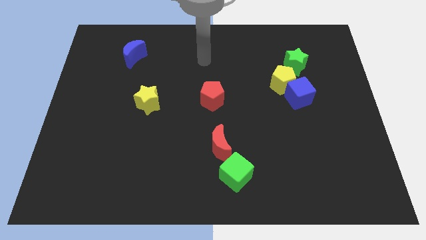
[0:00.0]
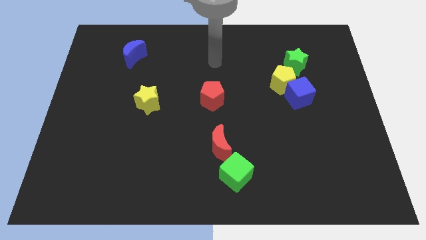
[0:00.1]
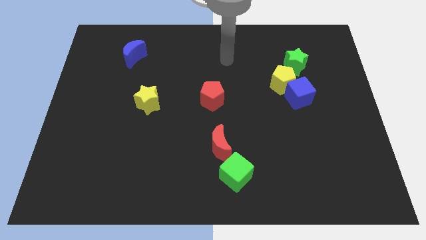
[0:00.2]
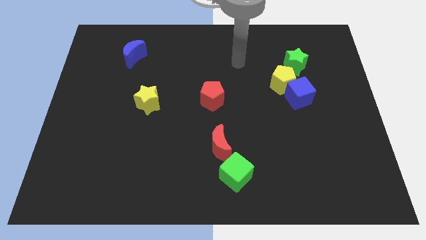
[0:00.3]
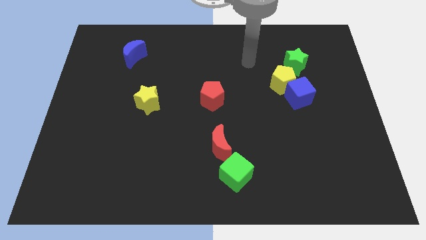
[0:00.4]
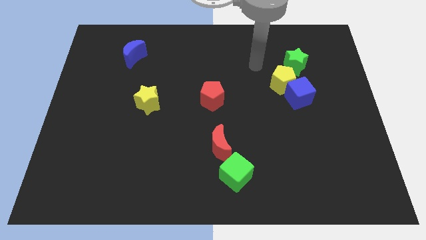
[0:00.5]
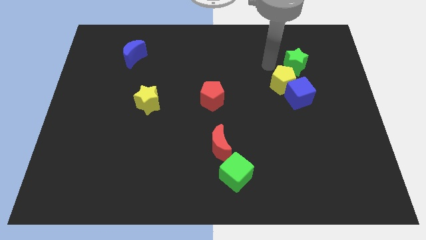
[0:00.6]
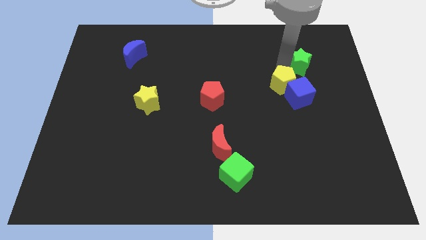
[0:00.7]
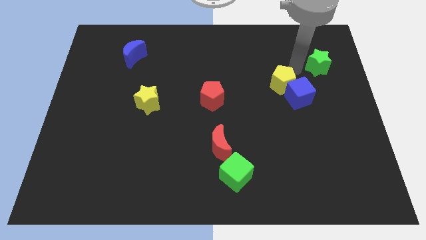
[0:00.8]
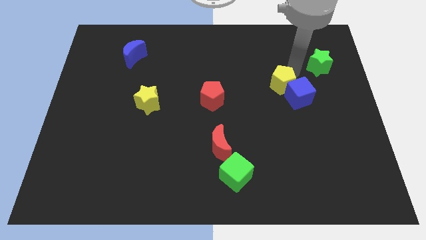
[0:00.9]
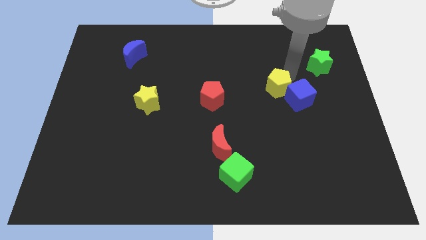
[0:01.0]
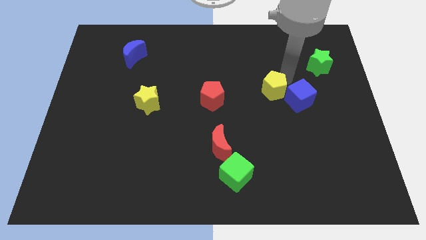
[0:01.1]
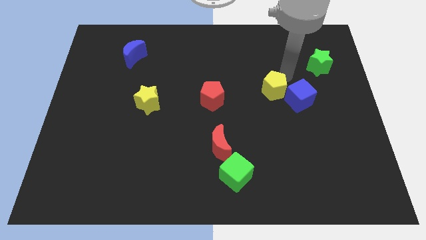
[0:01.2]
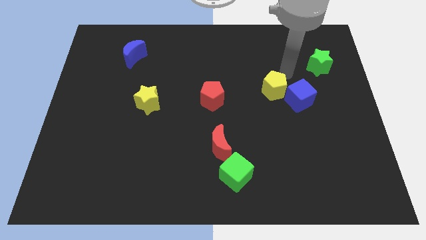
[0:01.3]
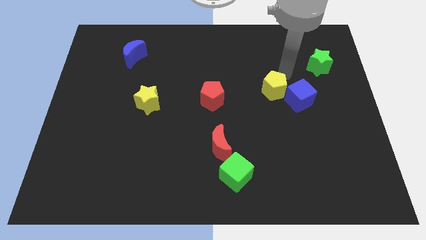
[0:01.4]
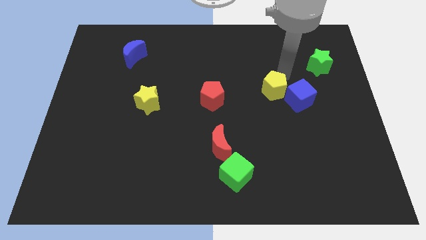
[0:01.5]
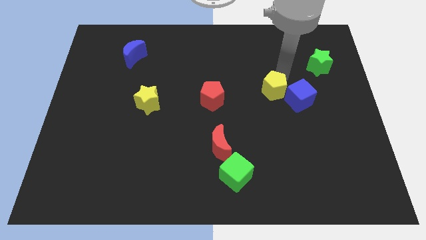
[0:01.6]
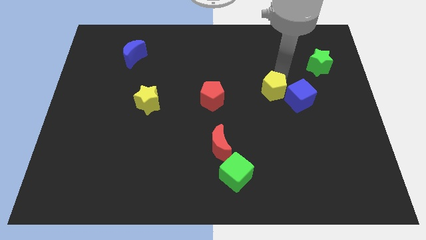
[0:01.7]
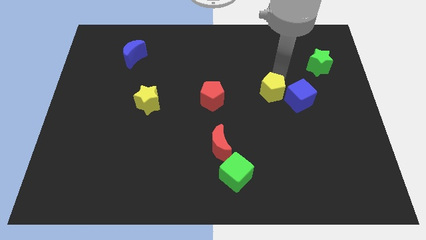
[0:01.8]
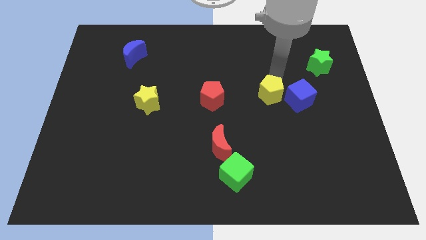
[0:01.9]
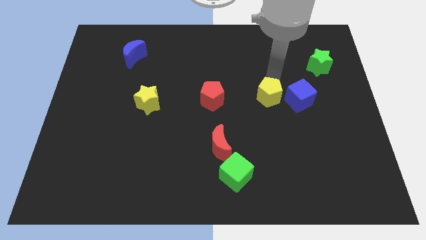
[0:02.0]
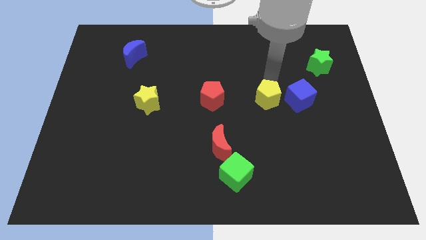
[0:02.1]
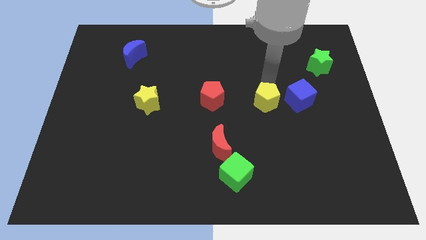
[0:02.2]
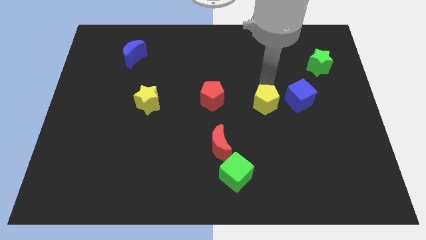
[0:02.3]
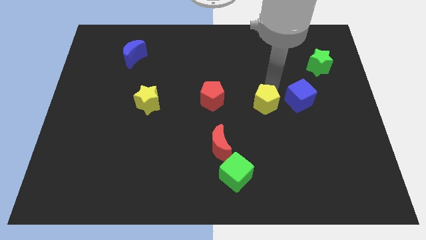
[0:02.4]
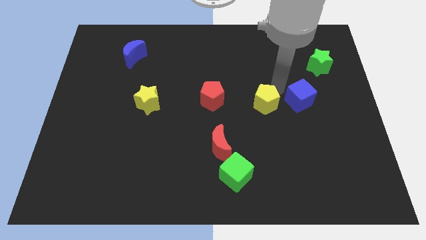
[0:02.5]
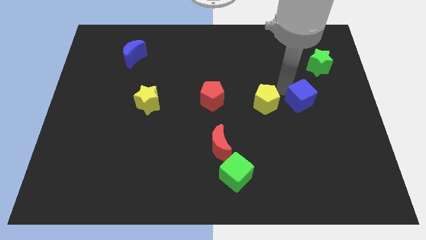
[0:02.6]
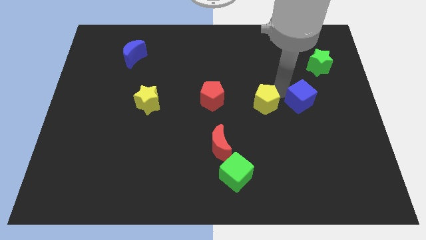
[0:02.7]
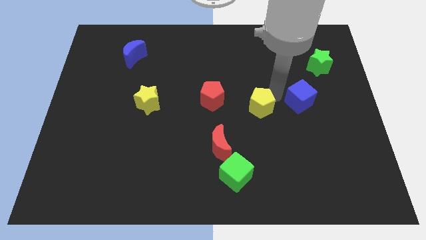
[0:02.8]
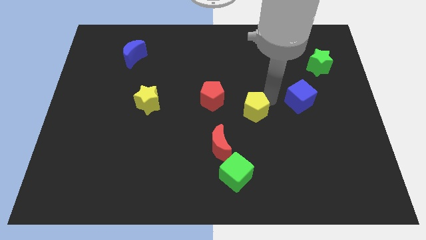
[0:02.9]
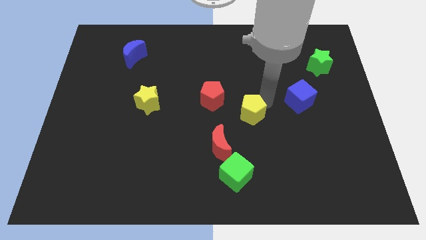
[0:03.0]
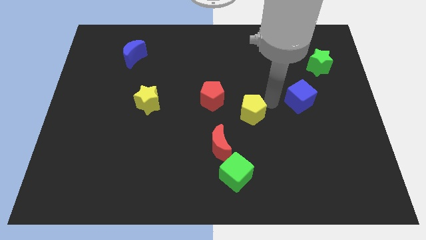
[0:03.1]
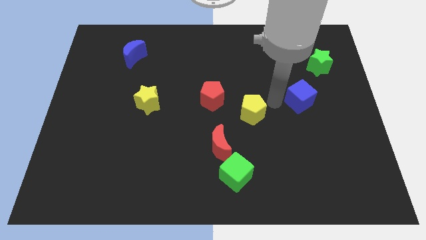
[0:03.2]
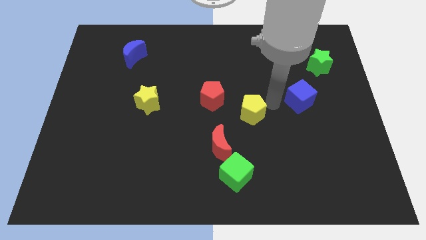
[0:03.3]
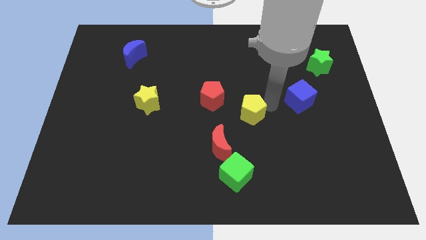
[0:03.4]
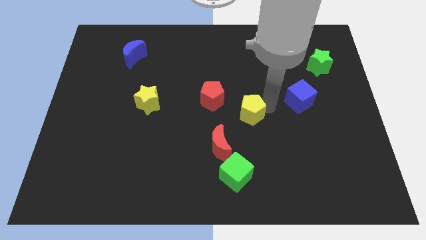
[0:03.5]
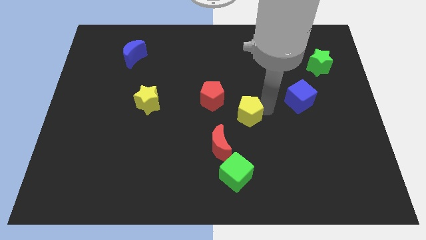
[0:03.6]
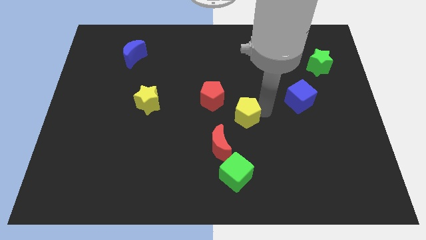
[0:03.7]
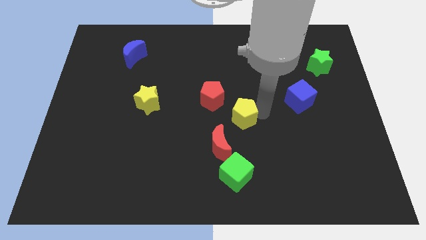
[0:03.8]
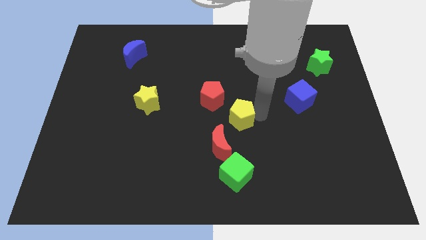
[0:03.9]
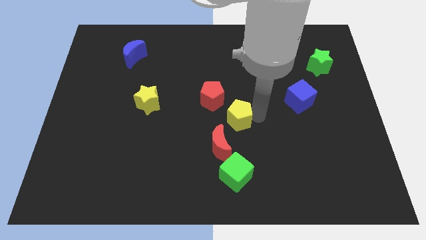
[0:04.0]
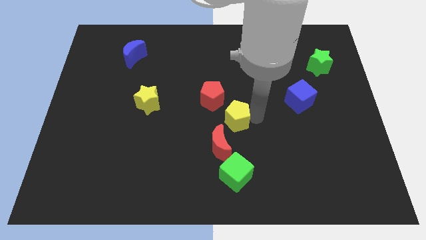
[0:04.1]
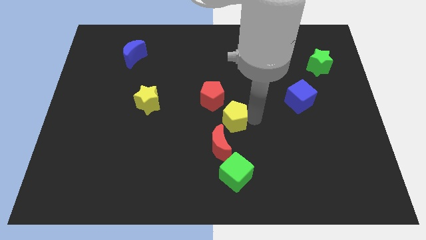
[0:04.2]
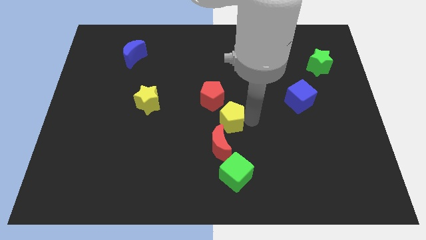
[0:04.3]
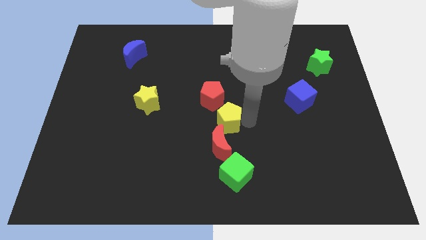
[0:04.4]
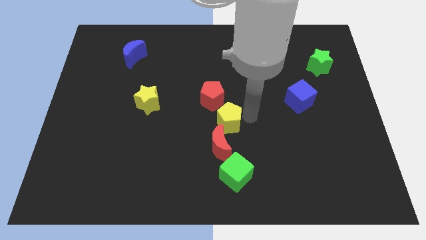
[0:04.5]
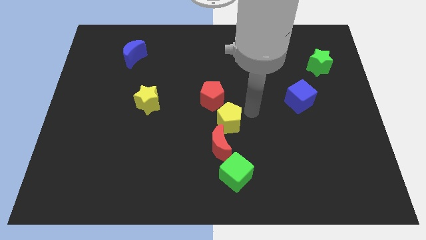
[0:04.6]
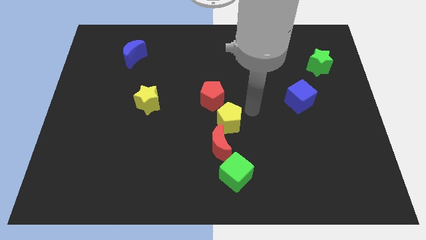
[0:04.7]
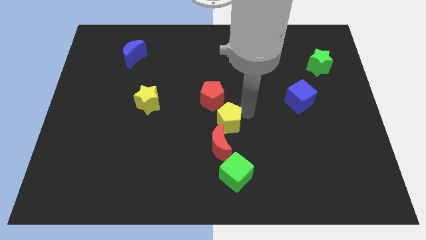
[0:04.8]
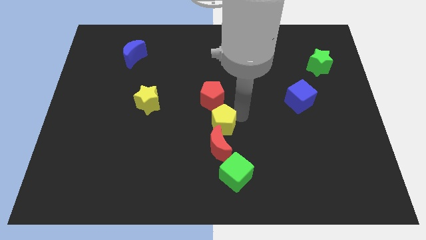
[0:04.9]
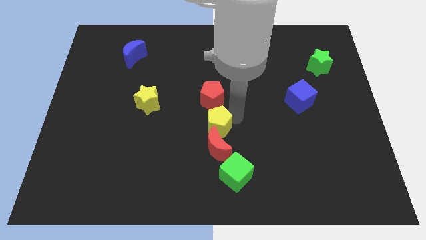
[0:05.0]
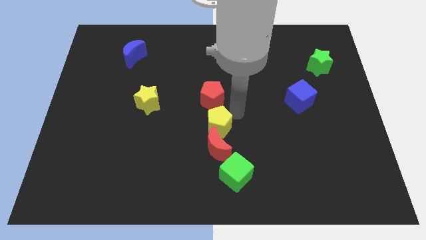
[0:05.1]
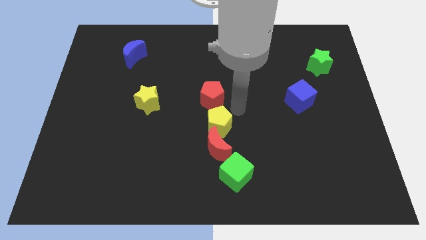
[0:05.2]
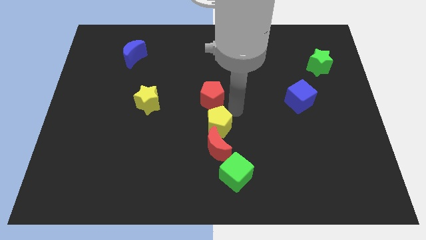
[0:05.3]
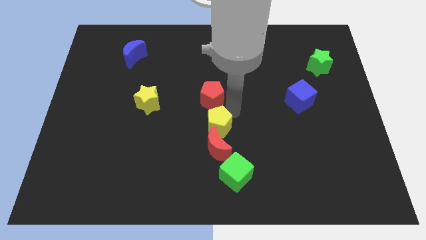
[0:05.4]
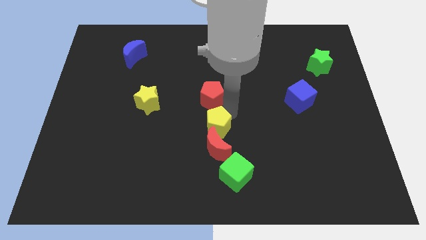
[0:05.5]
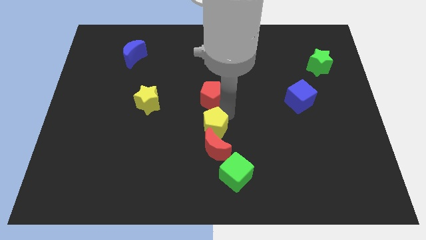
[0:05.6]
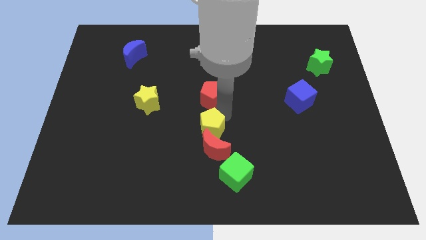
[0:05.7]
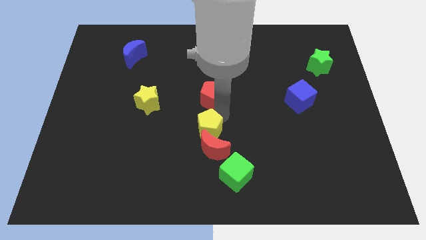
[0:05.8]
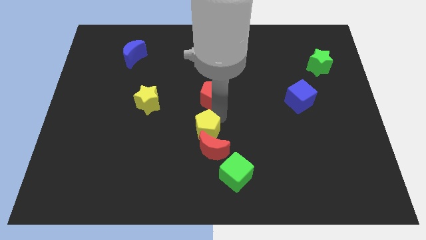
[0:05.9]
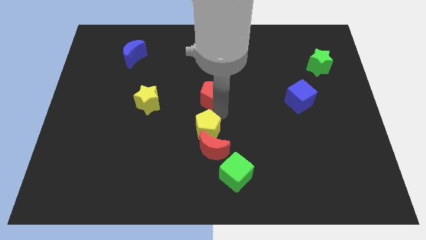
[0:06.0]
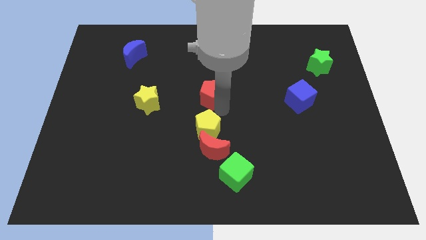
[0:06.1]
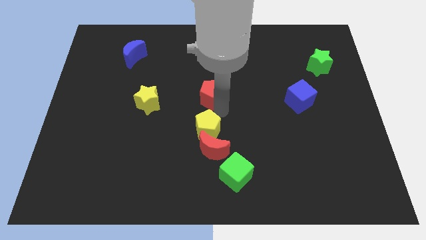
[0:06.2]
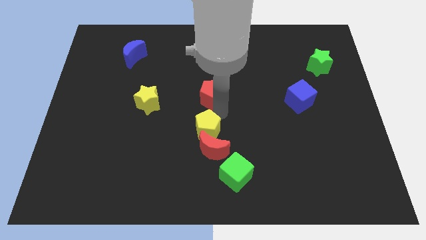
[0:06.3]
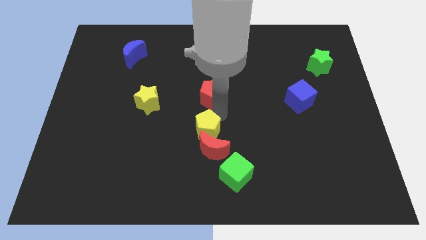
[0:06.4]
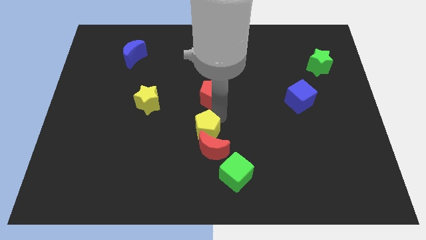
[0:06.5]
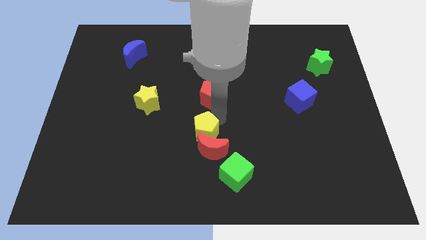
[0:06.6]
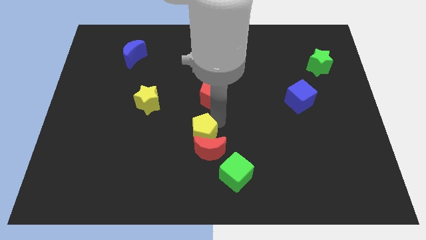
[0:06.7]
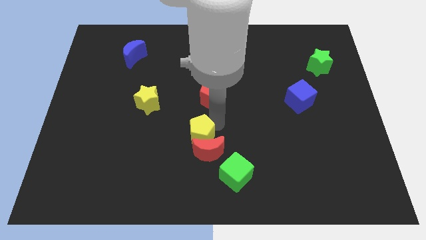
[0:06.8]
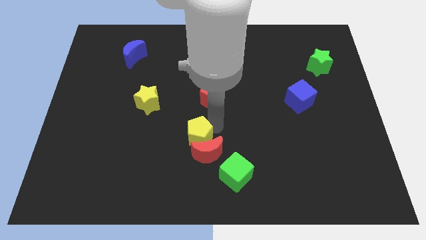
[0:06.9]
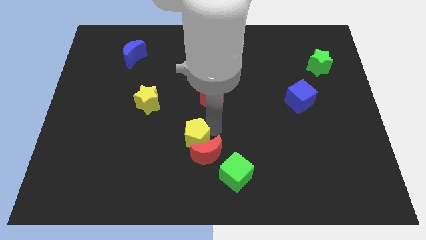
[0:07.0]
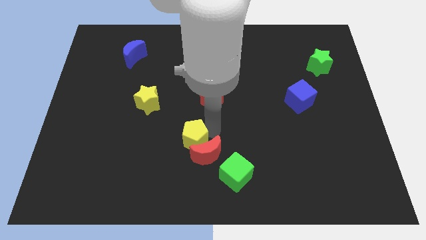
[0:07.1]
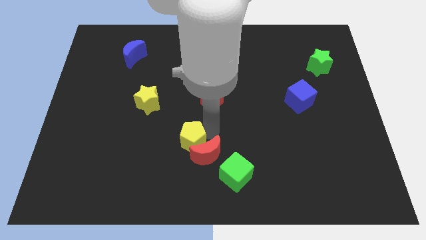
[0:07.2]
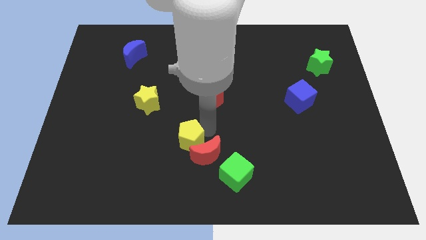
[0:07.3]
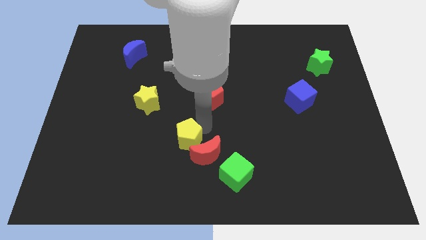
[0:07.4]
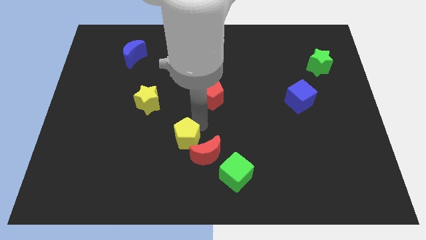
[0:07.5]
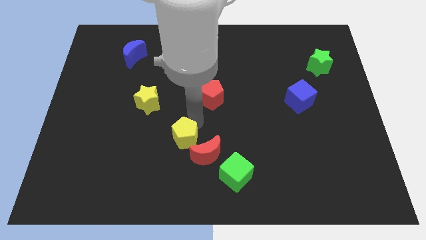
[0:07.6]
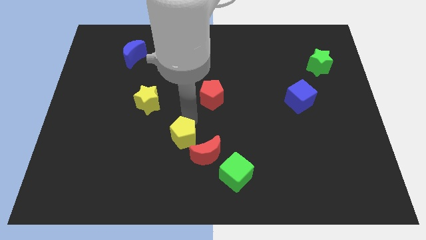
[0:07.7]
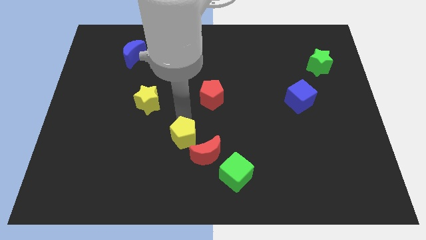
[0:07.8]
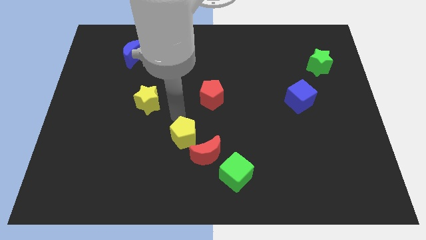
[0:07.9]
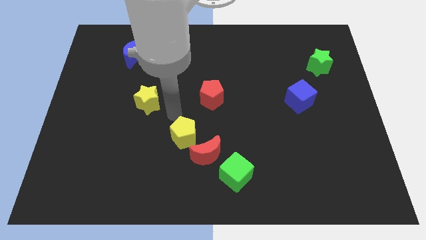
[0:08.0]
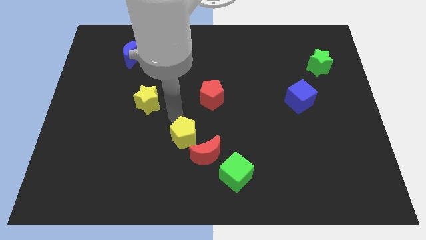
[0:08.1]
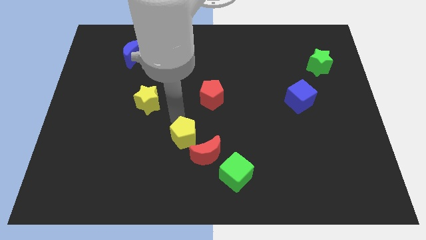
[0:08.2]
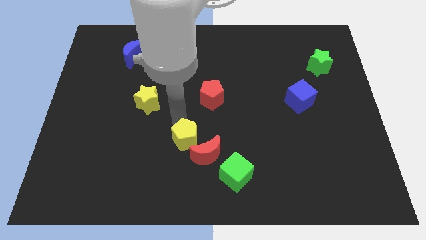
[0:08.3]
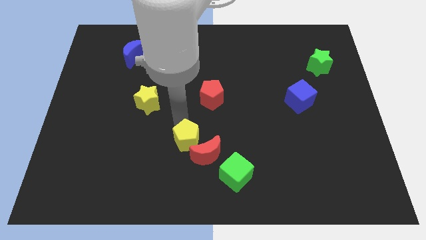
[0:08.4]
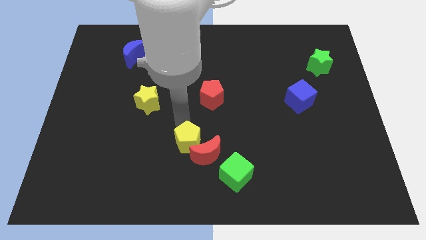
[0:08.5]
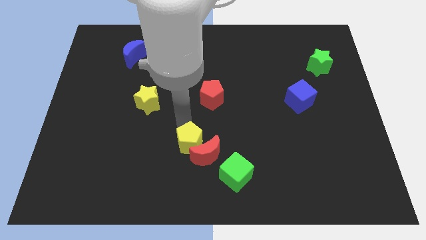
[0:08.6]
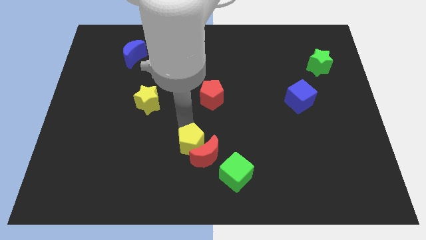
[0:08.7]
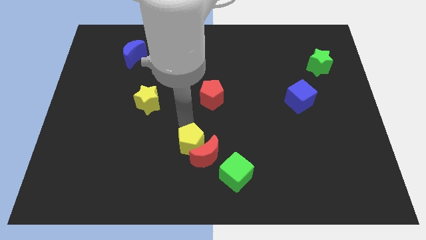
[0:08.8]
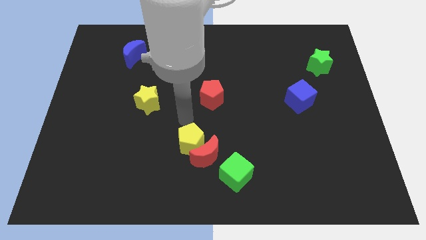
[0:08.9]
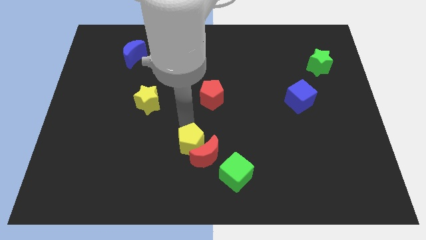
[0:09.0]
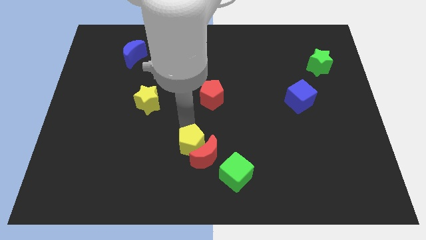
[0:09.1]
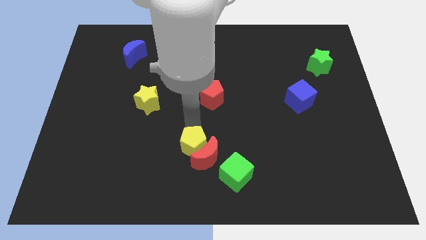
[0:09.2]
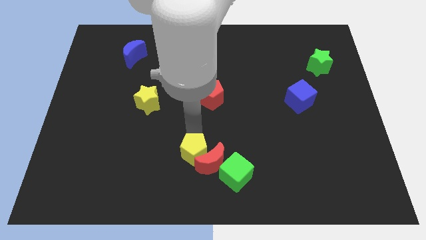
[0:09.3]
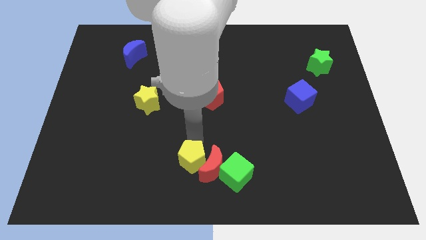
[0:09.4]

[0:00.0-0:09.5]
move the yellow pentagon to the left of the green cube
